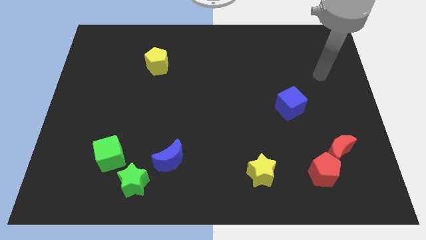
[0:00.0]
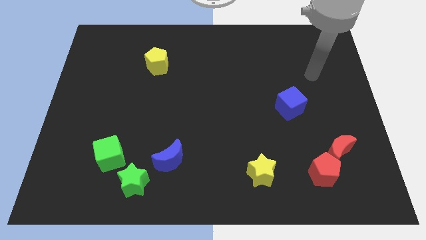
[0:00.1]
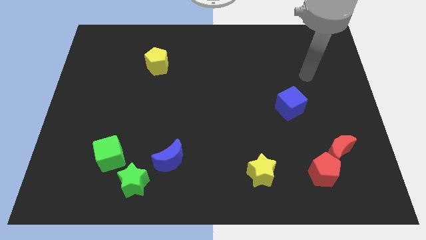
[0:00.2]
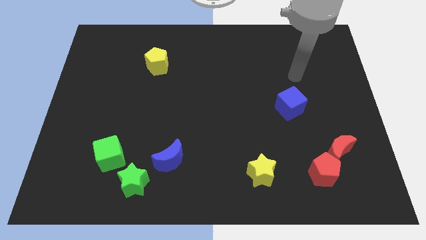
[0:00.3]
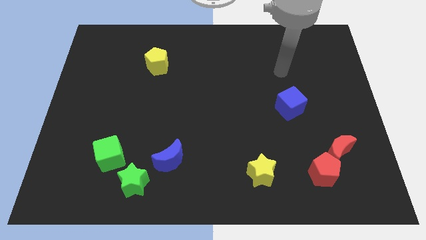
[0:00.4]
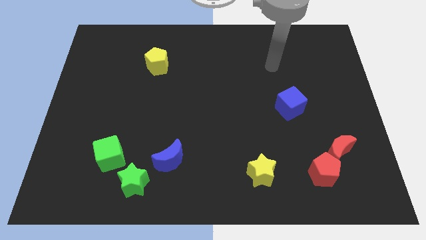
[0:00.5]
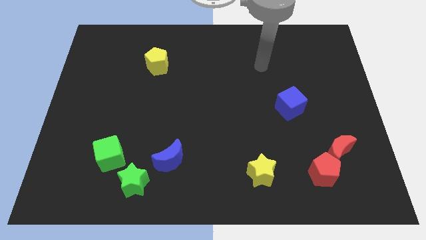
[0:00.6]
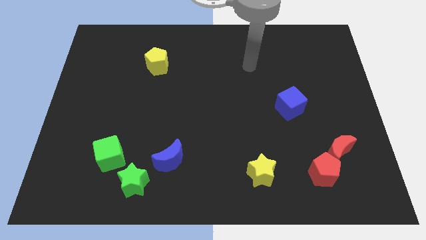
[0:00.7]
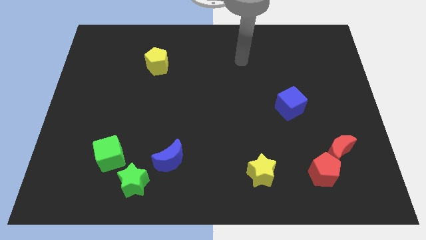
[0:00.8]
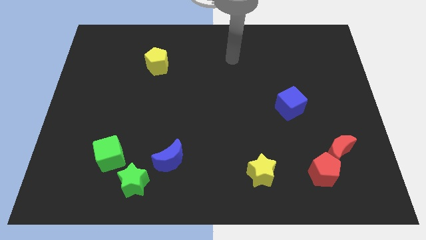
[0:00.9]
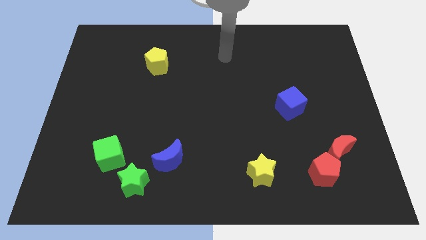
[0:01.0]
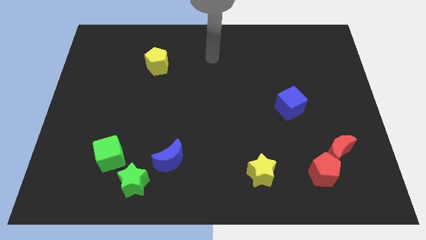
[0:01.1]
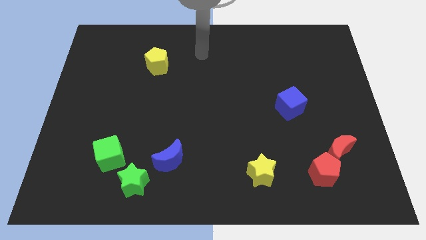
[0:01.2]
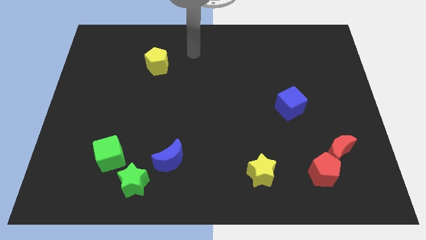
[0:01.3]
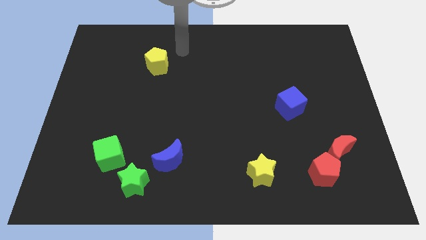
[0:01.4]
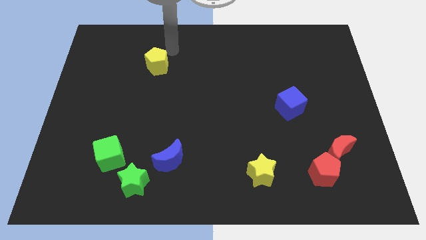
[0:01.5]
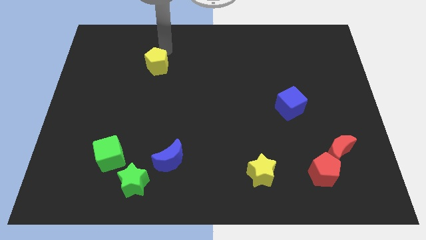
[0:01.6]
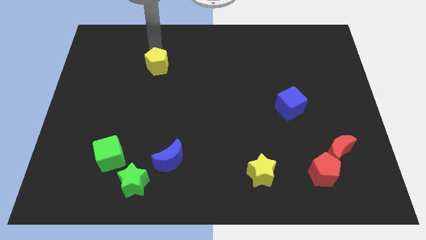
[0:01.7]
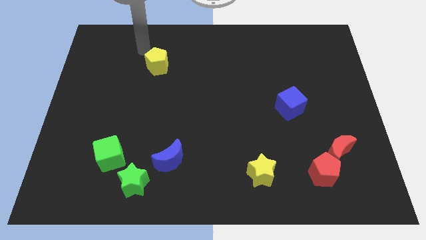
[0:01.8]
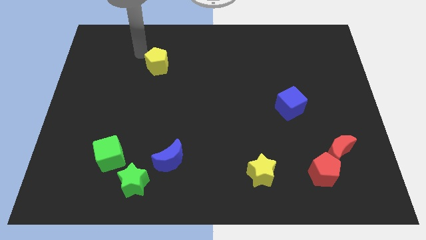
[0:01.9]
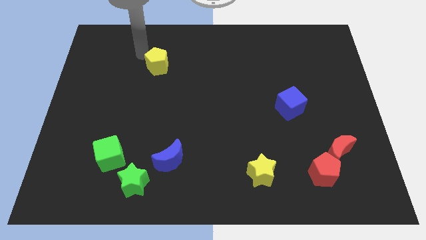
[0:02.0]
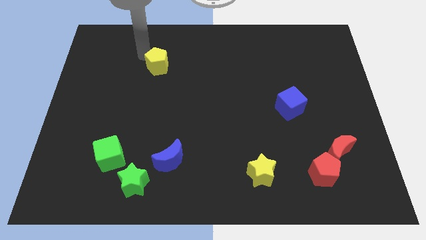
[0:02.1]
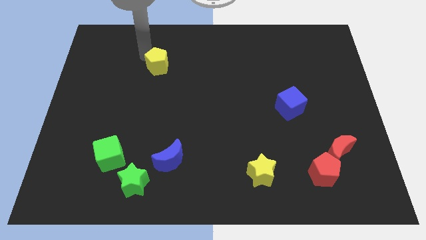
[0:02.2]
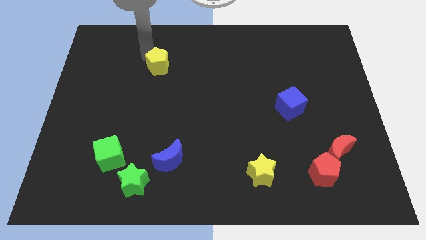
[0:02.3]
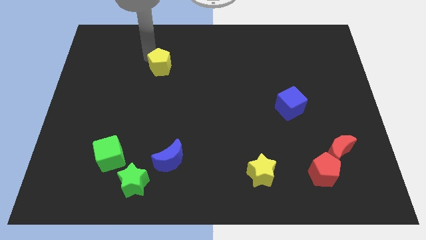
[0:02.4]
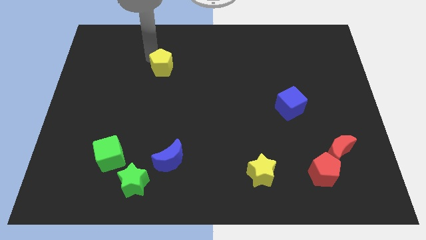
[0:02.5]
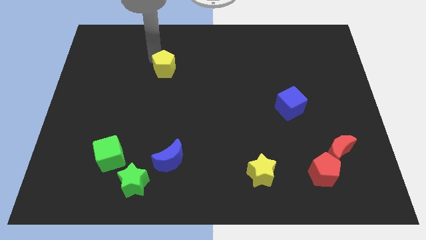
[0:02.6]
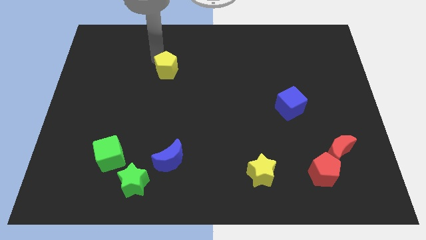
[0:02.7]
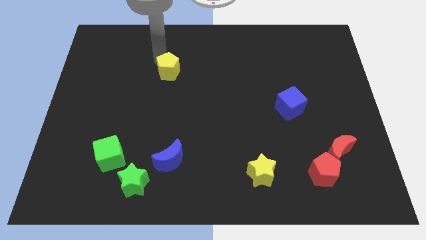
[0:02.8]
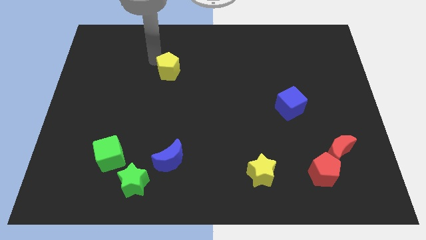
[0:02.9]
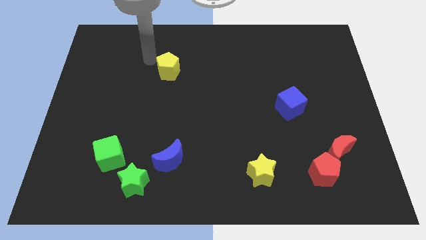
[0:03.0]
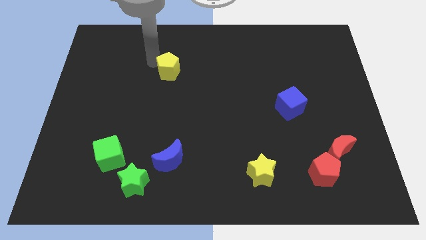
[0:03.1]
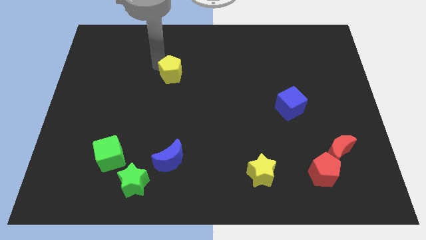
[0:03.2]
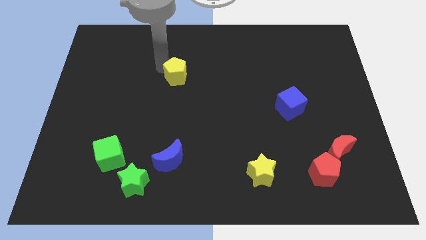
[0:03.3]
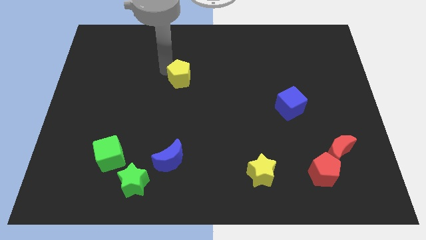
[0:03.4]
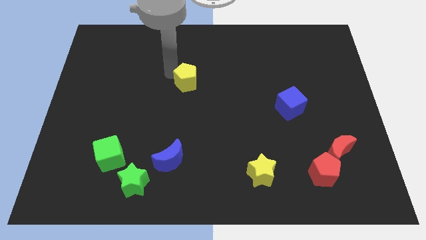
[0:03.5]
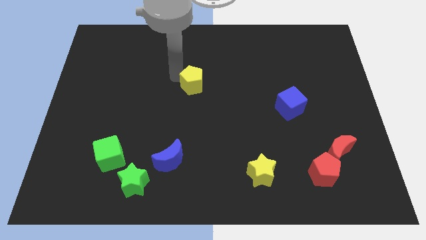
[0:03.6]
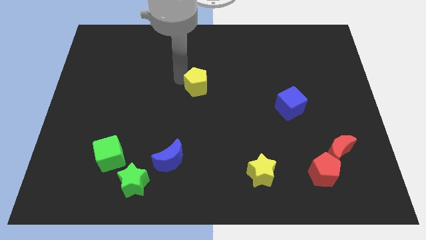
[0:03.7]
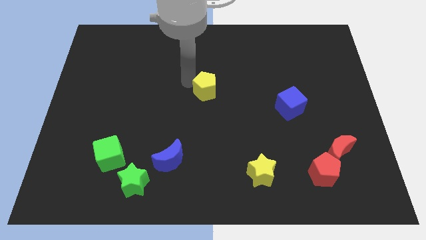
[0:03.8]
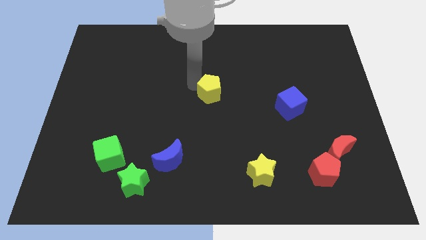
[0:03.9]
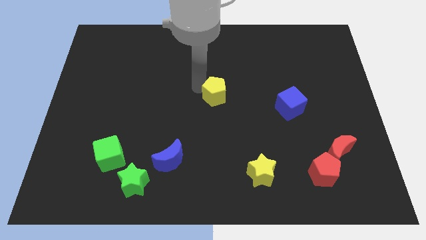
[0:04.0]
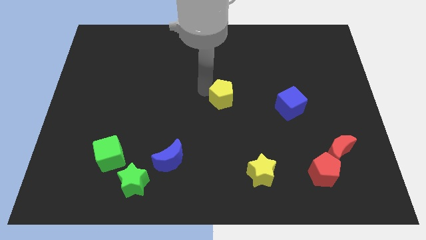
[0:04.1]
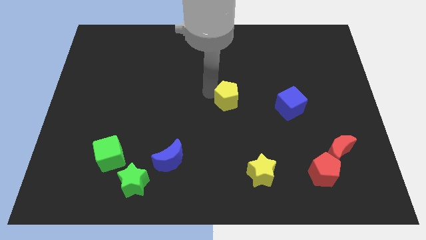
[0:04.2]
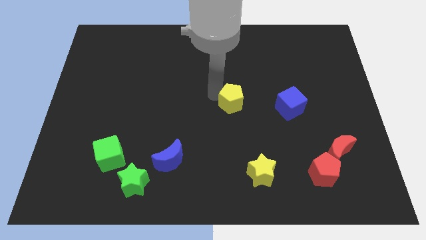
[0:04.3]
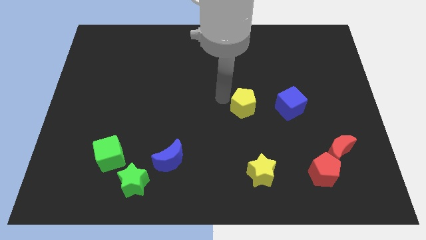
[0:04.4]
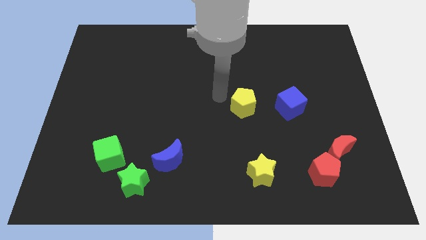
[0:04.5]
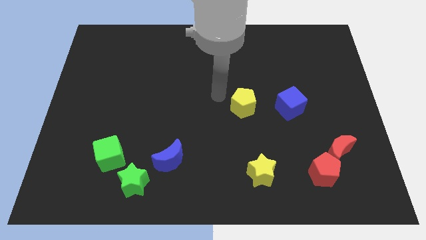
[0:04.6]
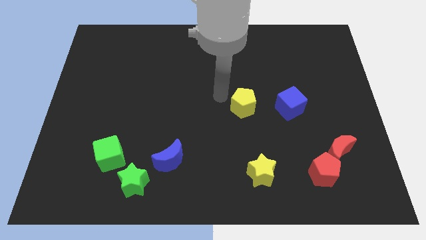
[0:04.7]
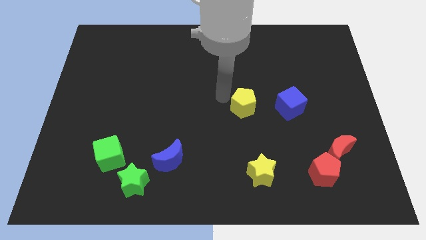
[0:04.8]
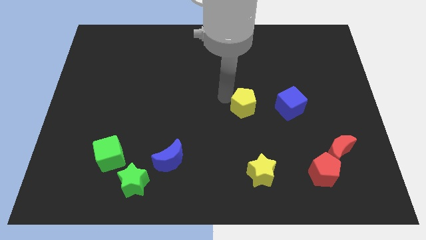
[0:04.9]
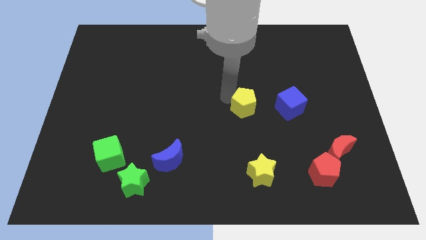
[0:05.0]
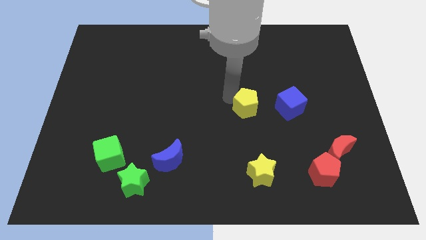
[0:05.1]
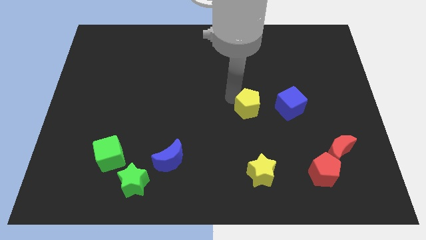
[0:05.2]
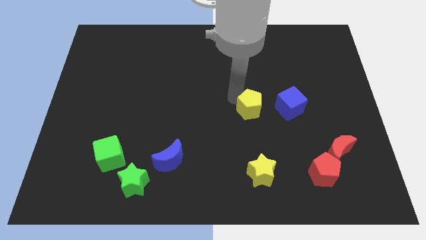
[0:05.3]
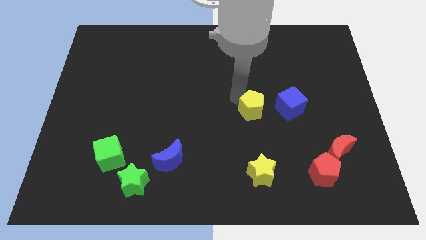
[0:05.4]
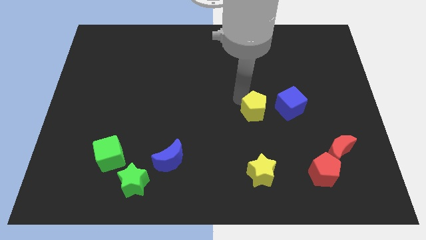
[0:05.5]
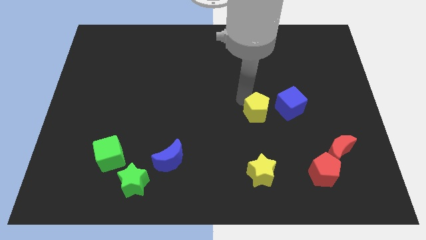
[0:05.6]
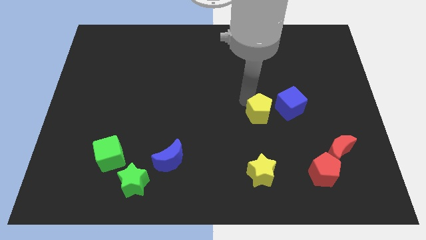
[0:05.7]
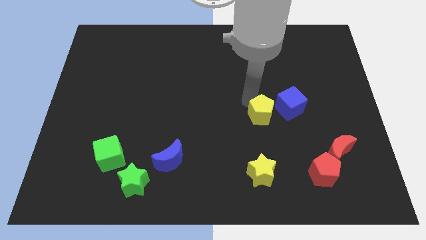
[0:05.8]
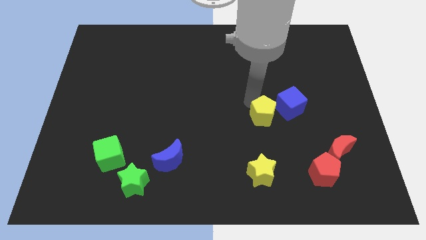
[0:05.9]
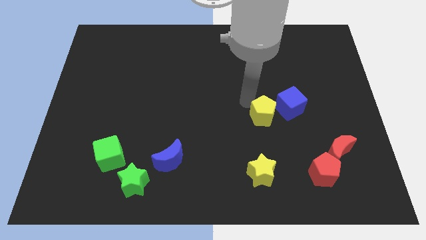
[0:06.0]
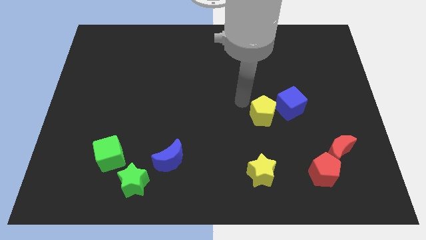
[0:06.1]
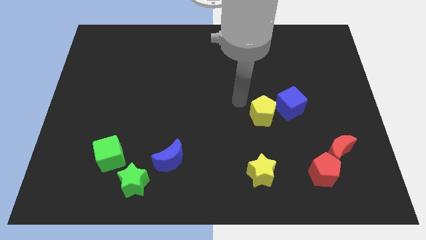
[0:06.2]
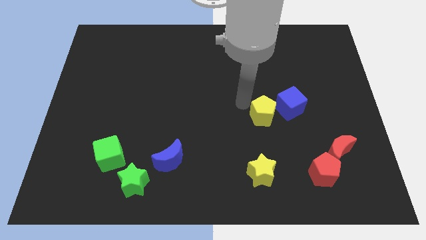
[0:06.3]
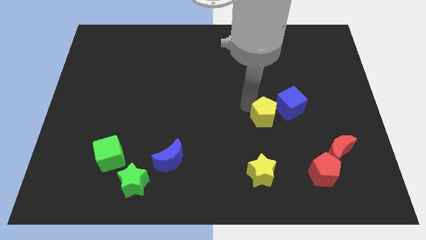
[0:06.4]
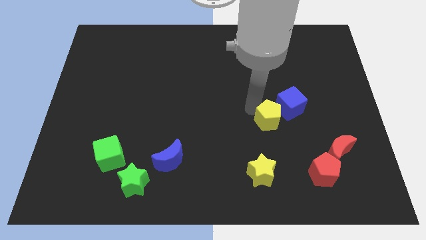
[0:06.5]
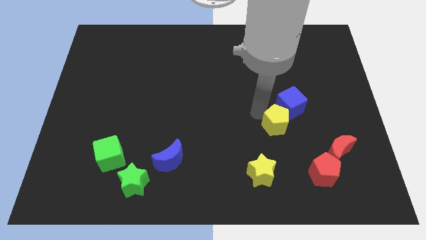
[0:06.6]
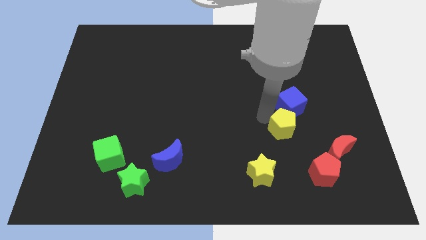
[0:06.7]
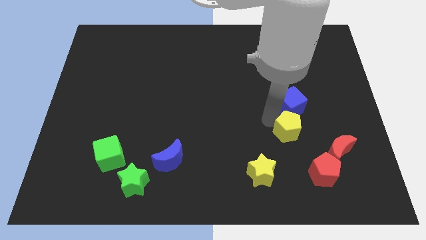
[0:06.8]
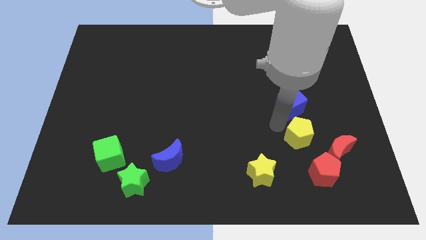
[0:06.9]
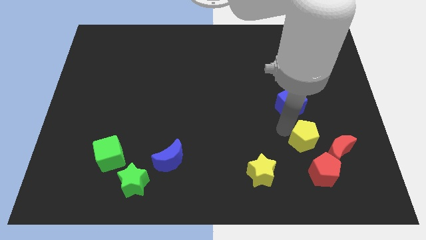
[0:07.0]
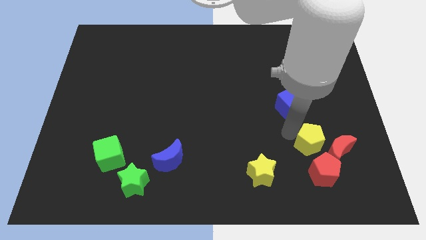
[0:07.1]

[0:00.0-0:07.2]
slide the yellow pentagon close to the red moon

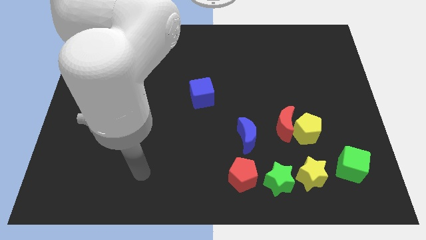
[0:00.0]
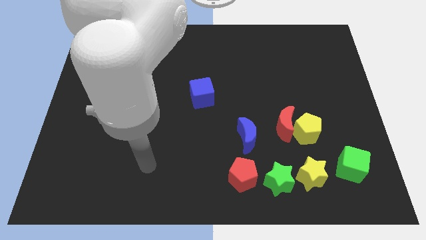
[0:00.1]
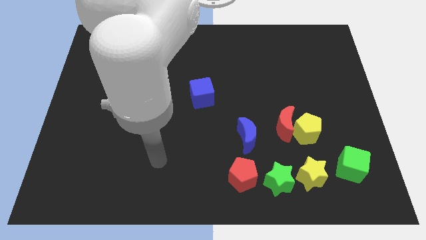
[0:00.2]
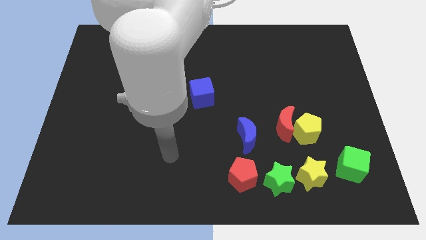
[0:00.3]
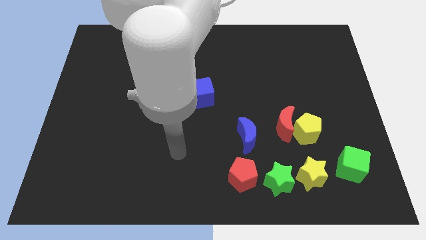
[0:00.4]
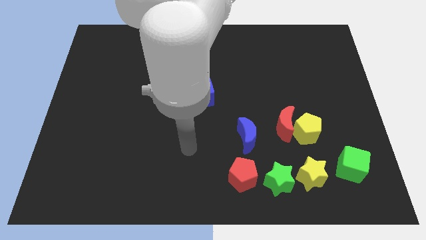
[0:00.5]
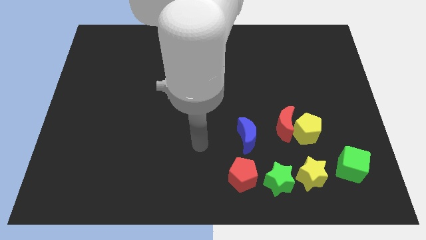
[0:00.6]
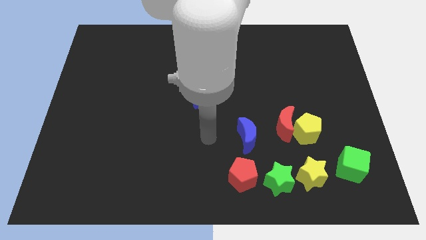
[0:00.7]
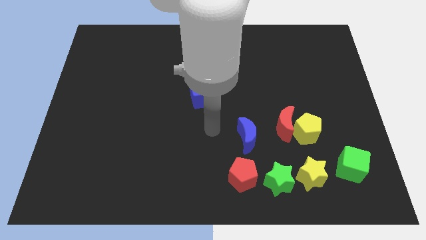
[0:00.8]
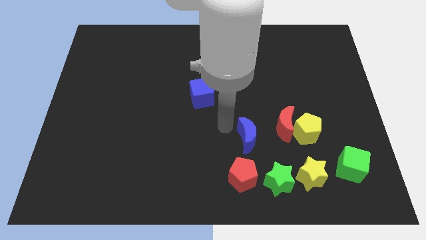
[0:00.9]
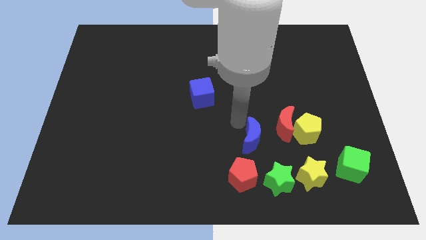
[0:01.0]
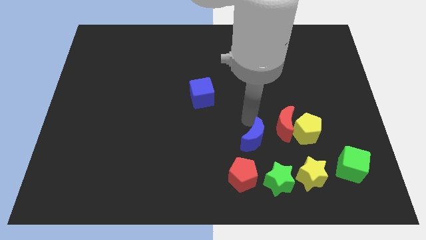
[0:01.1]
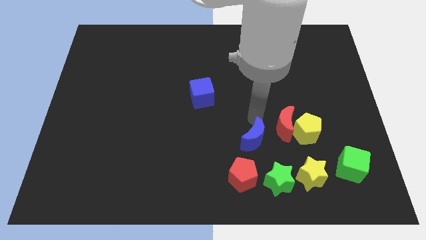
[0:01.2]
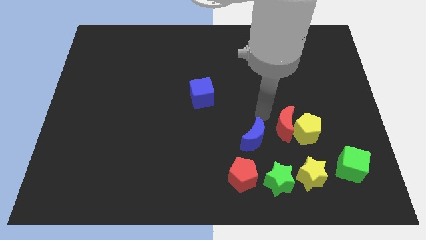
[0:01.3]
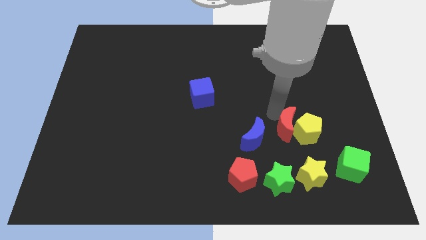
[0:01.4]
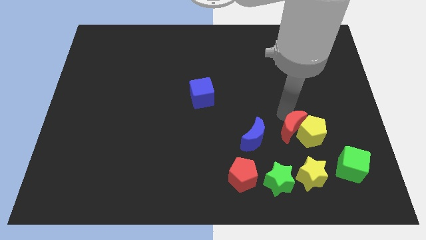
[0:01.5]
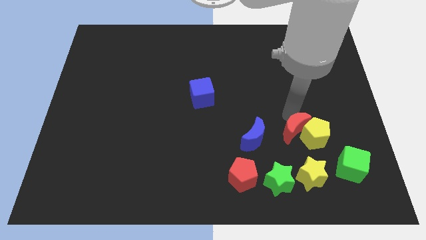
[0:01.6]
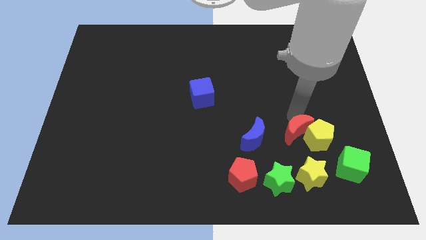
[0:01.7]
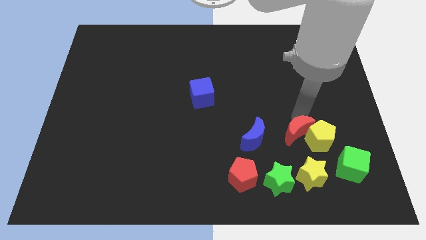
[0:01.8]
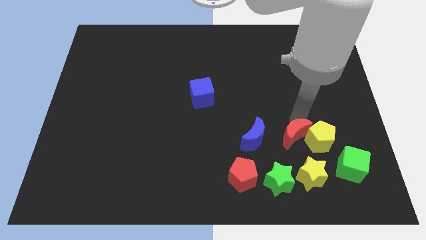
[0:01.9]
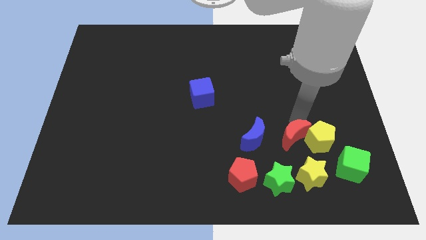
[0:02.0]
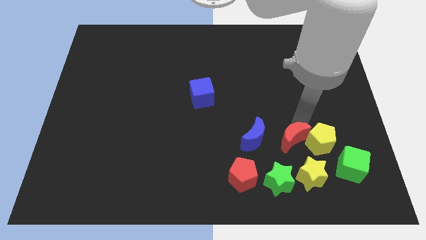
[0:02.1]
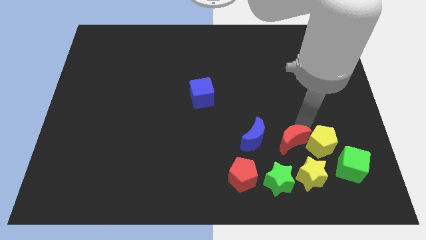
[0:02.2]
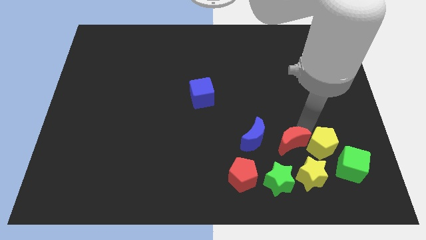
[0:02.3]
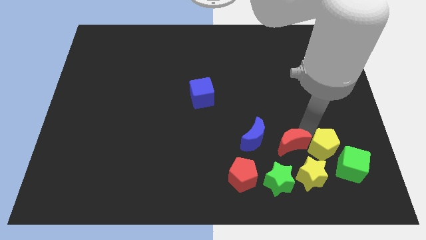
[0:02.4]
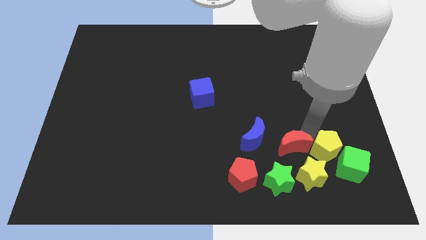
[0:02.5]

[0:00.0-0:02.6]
put the yellow pentagon next to the green cube
